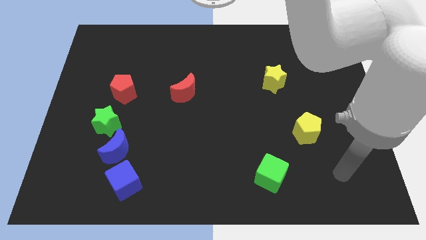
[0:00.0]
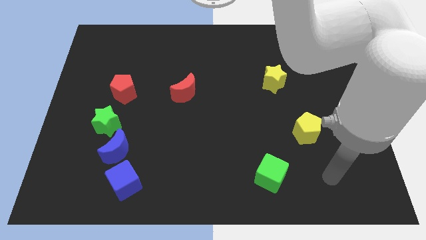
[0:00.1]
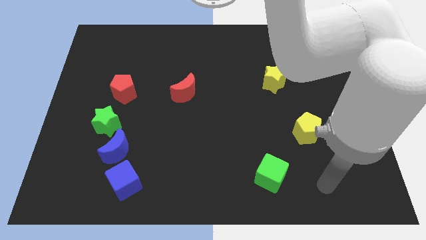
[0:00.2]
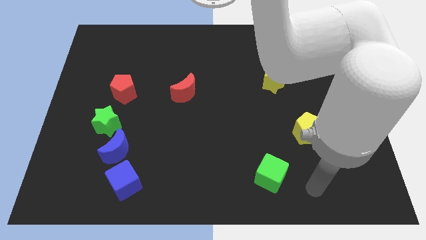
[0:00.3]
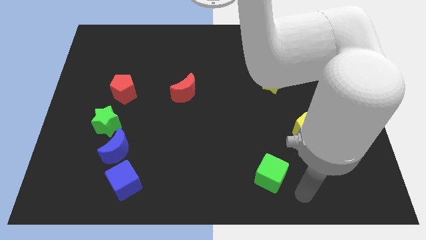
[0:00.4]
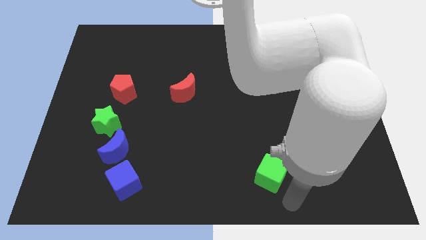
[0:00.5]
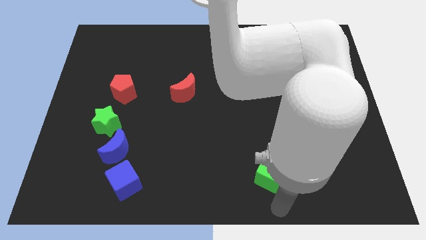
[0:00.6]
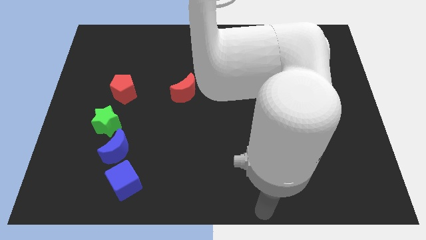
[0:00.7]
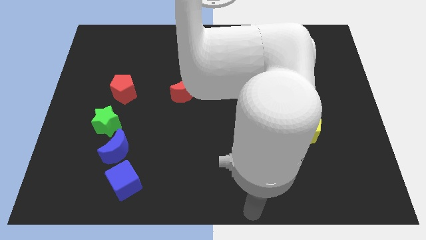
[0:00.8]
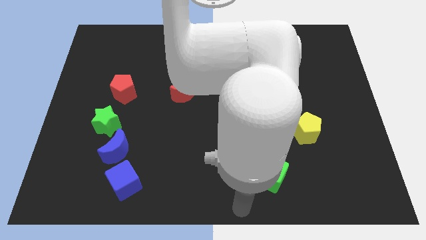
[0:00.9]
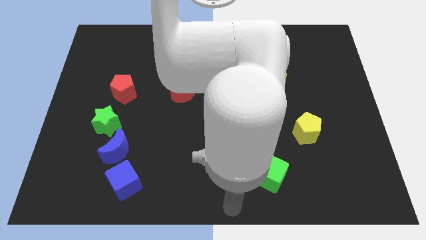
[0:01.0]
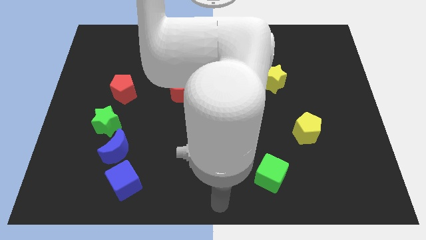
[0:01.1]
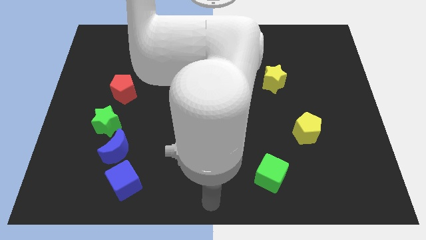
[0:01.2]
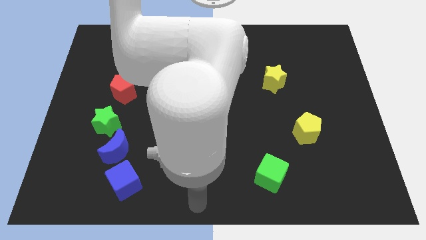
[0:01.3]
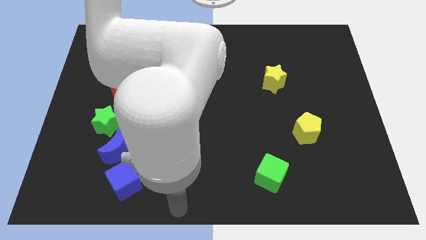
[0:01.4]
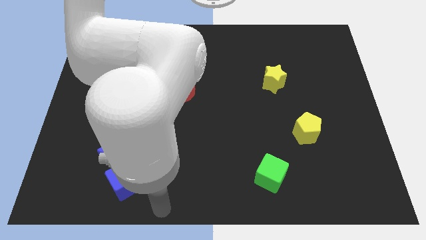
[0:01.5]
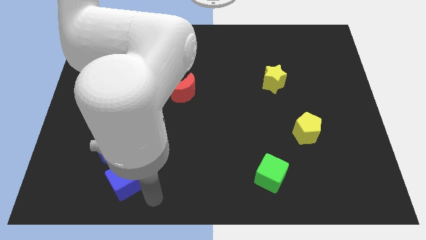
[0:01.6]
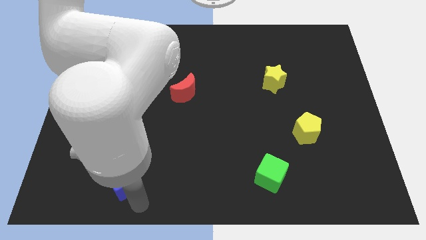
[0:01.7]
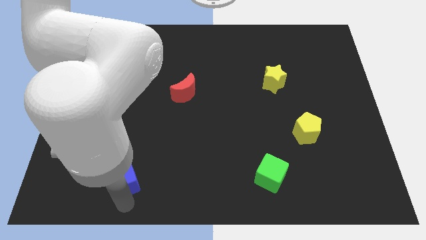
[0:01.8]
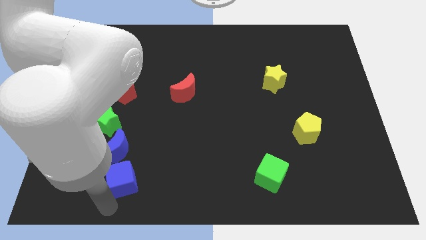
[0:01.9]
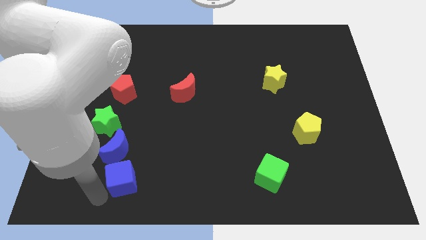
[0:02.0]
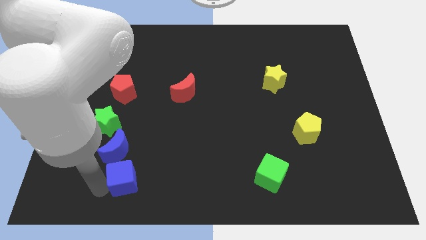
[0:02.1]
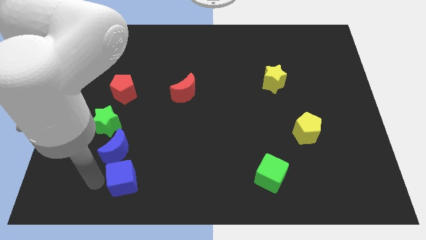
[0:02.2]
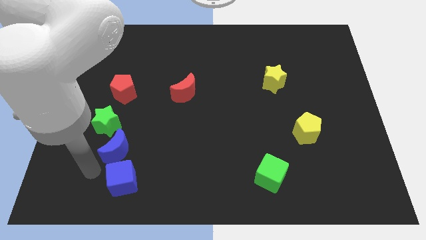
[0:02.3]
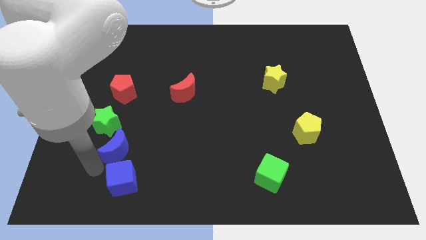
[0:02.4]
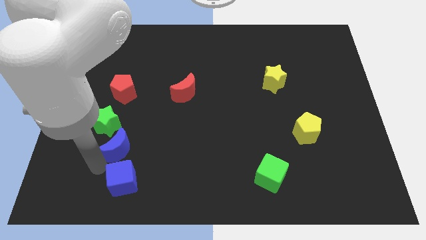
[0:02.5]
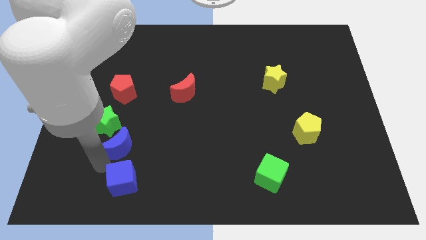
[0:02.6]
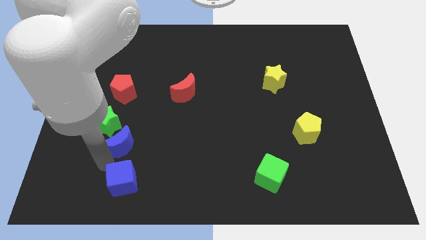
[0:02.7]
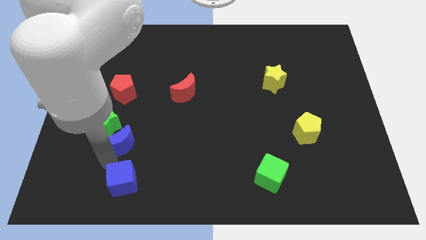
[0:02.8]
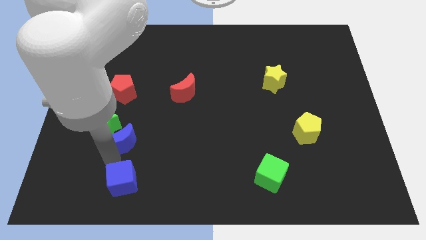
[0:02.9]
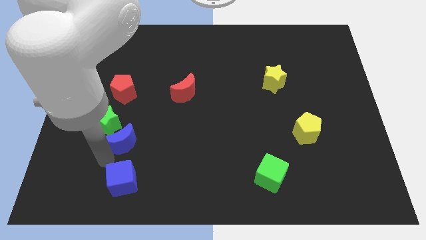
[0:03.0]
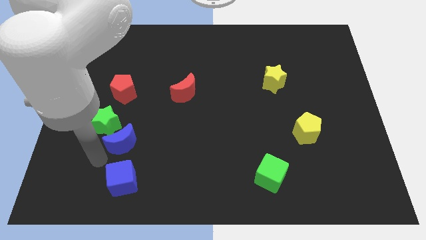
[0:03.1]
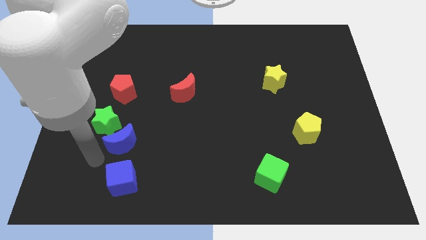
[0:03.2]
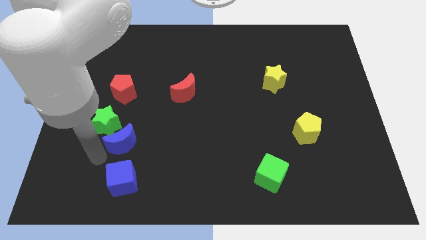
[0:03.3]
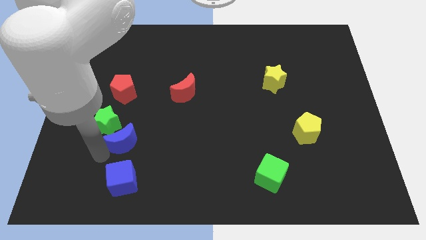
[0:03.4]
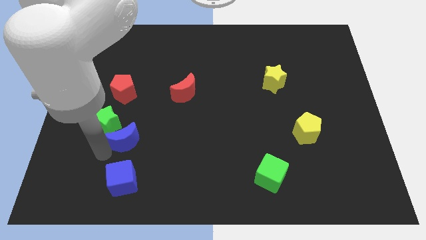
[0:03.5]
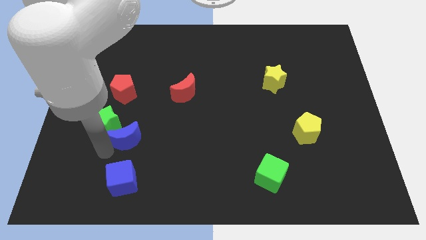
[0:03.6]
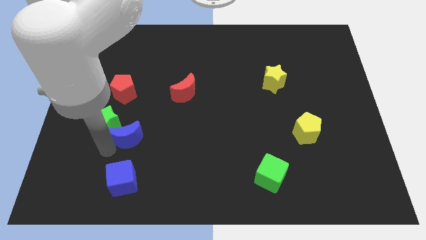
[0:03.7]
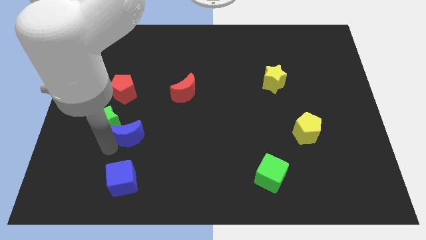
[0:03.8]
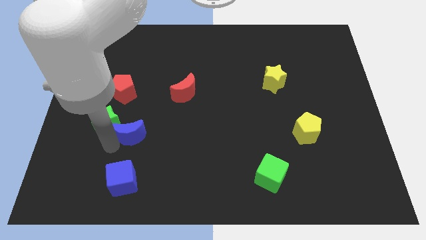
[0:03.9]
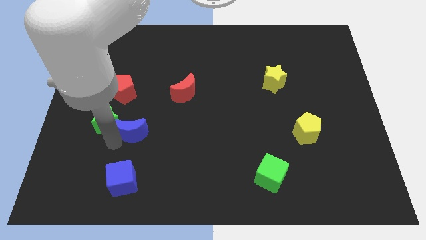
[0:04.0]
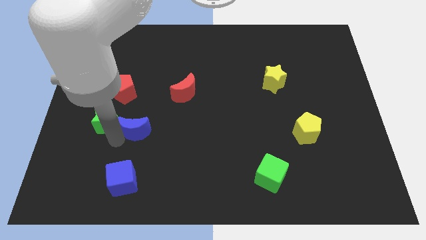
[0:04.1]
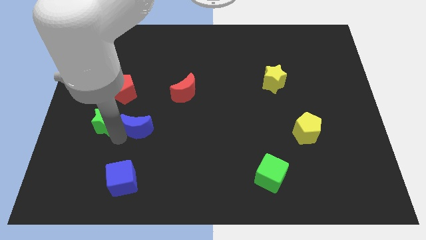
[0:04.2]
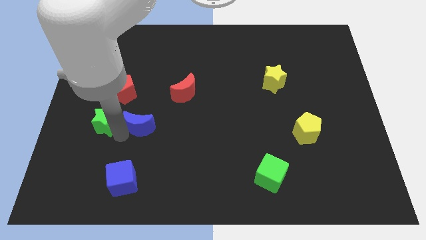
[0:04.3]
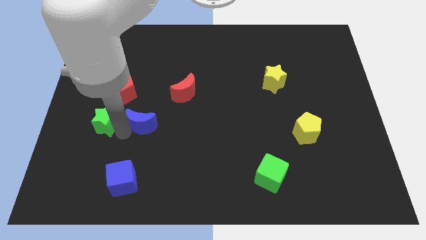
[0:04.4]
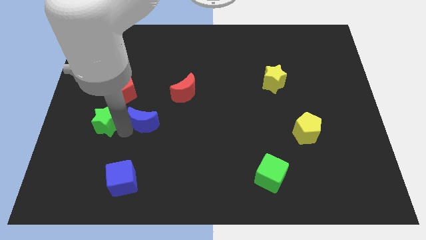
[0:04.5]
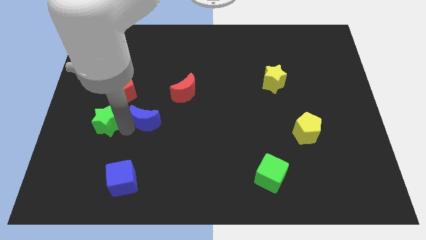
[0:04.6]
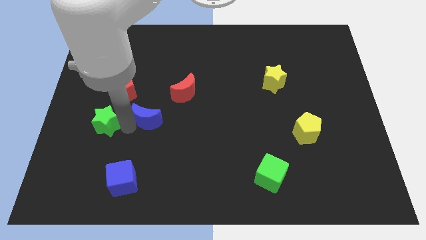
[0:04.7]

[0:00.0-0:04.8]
move the blue moon away from the green star and blue cube

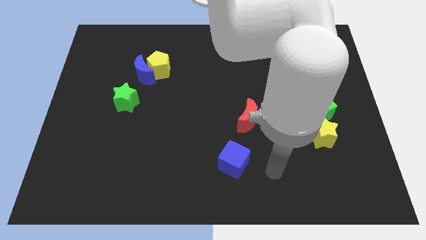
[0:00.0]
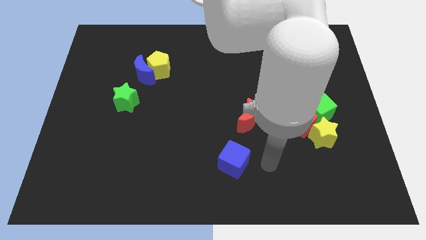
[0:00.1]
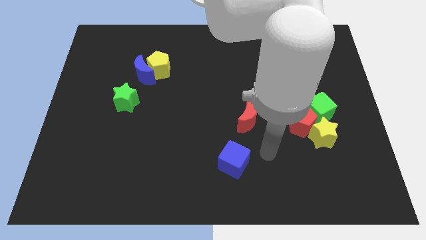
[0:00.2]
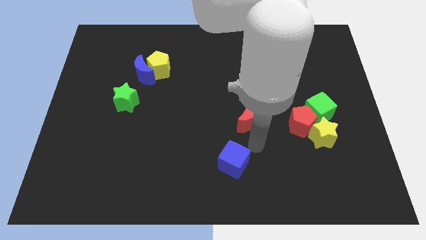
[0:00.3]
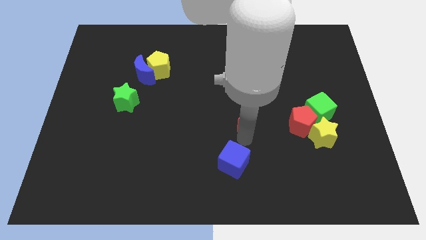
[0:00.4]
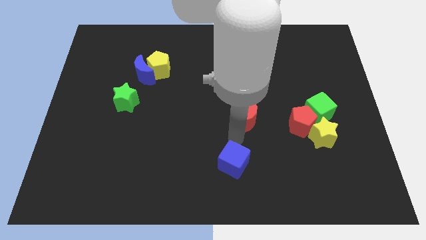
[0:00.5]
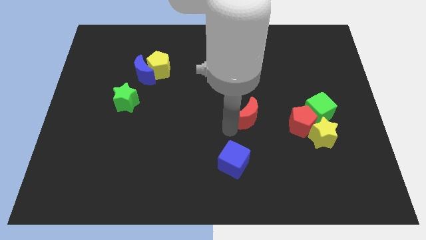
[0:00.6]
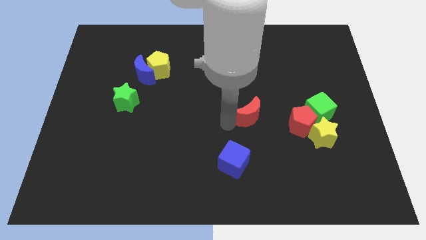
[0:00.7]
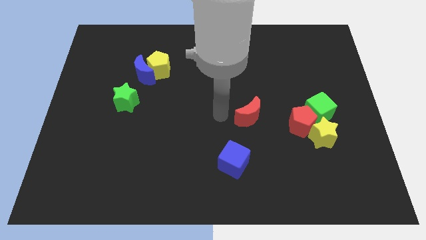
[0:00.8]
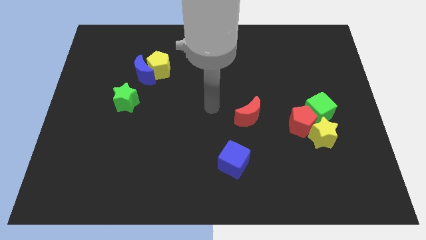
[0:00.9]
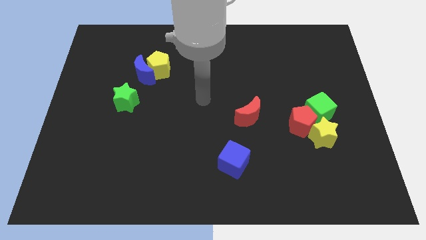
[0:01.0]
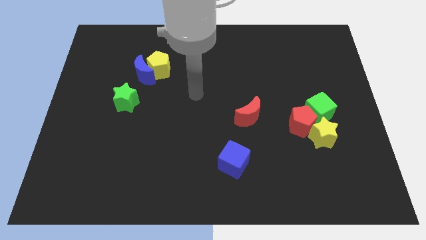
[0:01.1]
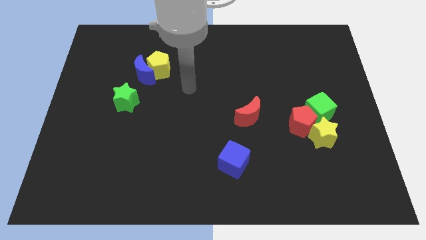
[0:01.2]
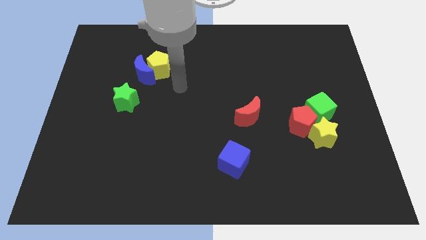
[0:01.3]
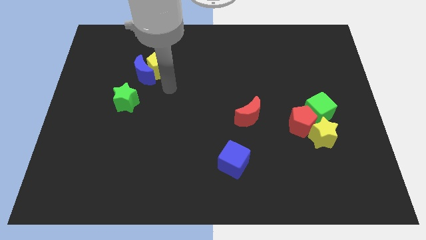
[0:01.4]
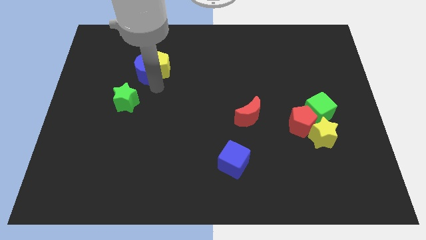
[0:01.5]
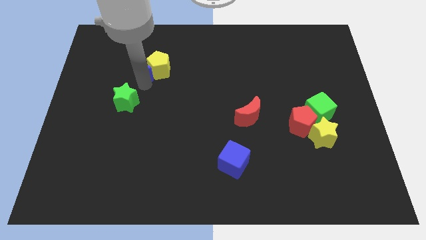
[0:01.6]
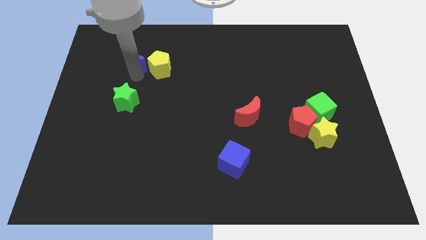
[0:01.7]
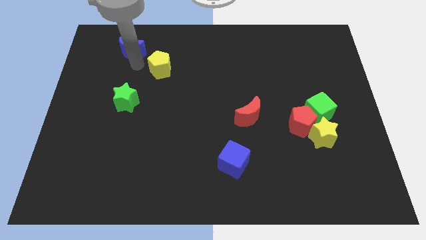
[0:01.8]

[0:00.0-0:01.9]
move the yellow pentagon away from the blue moon

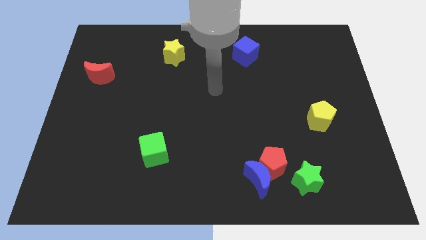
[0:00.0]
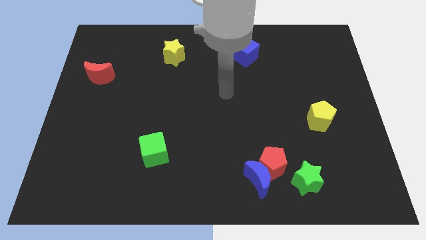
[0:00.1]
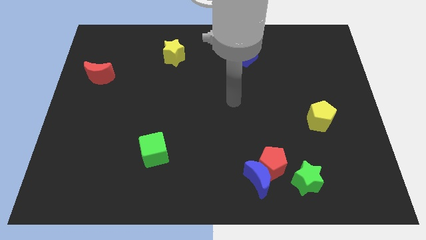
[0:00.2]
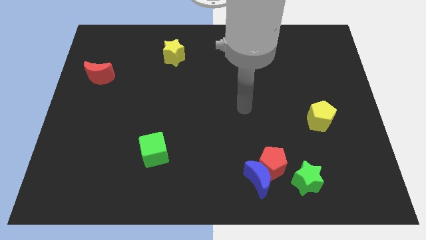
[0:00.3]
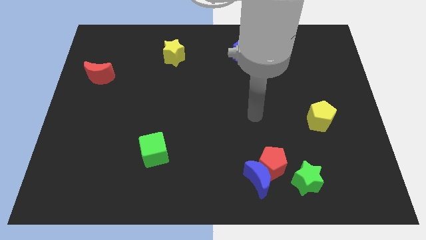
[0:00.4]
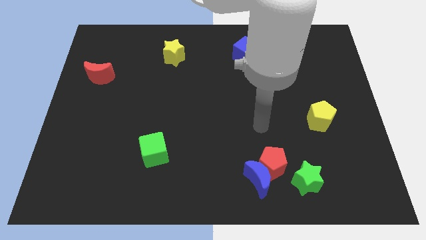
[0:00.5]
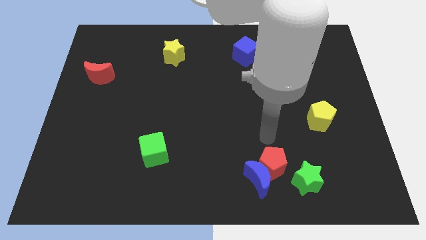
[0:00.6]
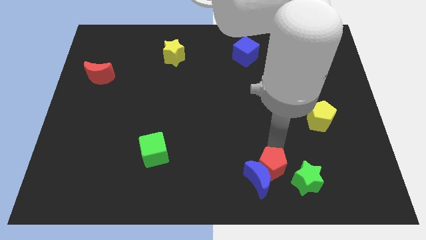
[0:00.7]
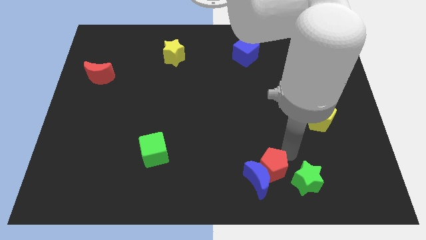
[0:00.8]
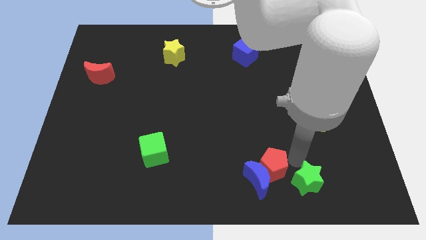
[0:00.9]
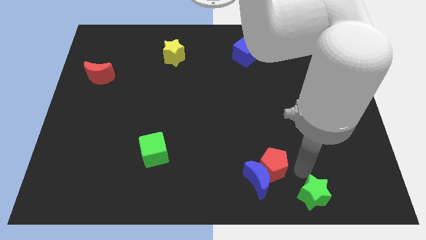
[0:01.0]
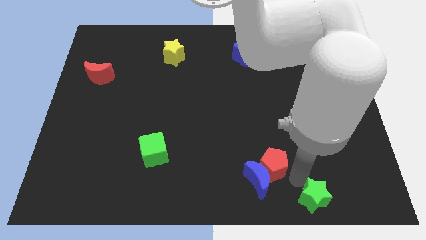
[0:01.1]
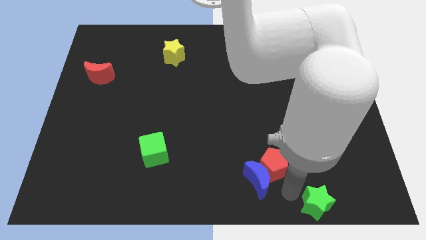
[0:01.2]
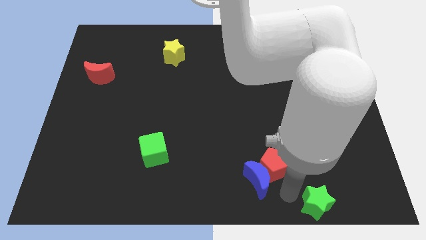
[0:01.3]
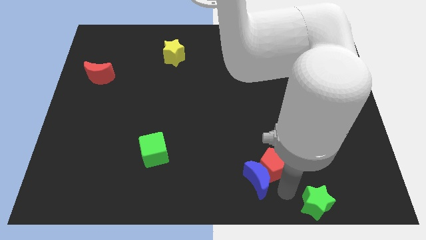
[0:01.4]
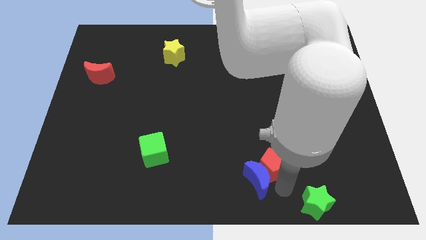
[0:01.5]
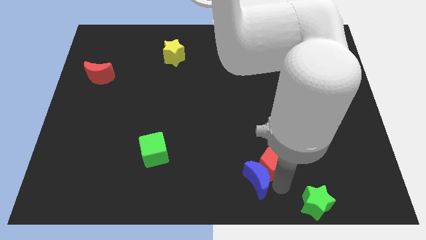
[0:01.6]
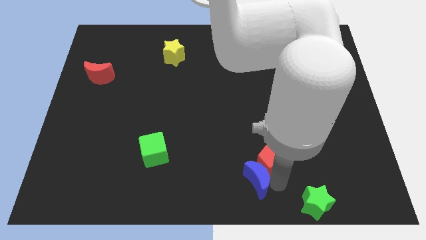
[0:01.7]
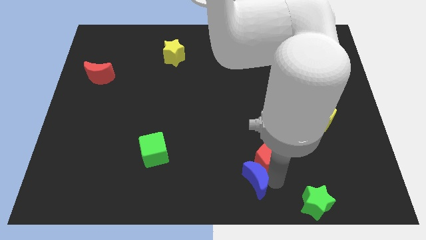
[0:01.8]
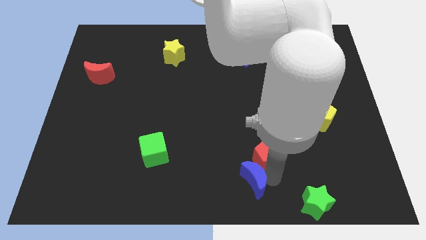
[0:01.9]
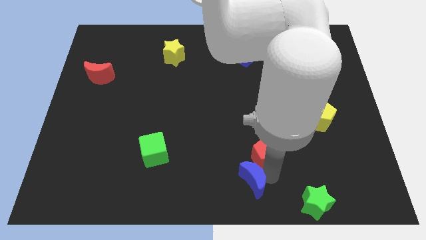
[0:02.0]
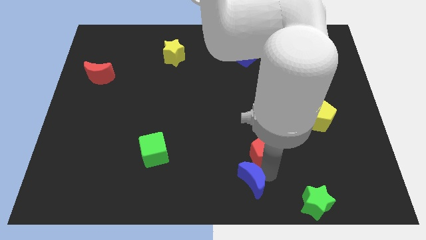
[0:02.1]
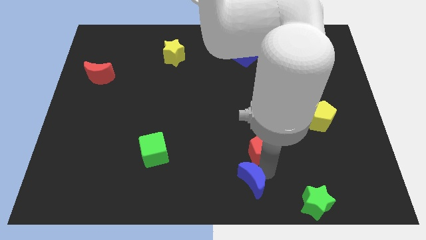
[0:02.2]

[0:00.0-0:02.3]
separate the red pentagon from the blue moon and green star

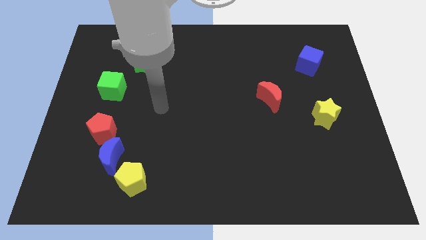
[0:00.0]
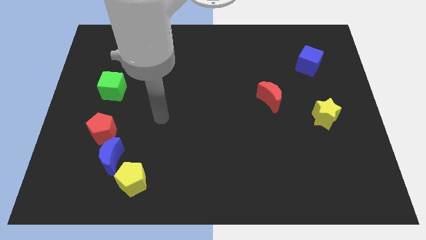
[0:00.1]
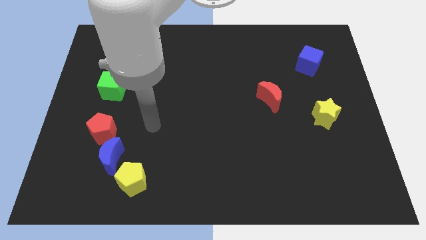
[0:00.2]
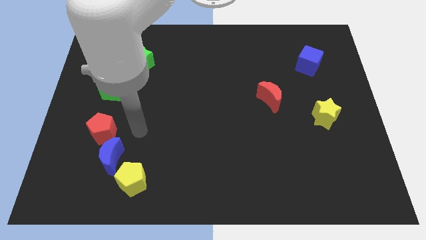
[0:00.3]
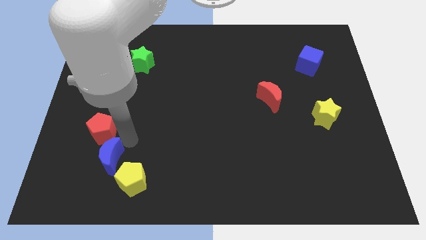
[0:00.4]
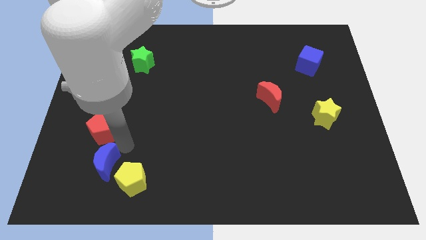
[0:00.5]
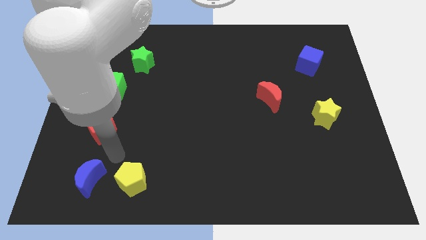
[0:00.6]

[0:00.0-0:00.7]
pull the red pentagon apart from the blue moon
